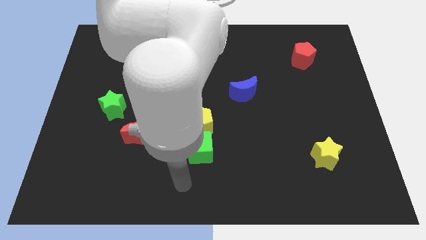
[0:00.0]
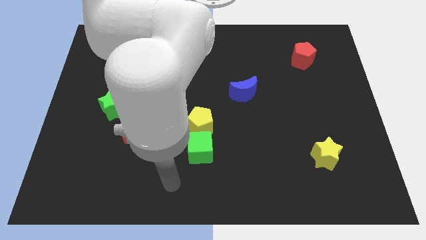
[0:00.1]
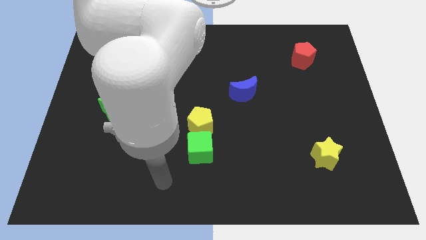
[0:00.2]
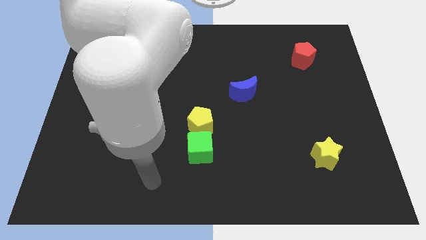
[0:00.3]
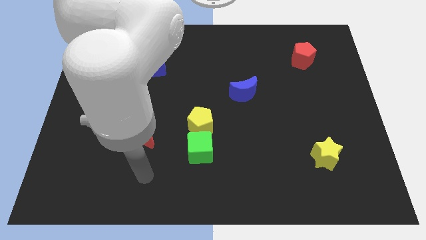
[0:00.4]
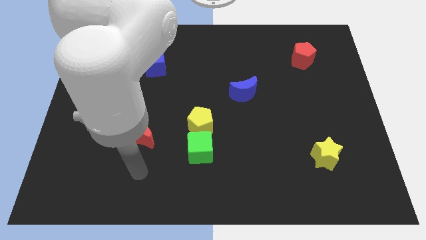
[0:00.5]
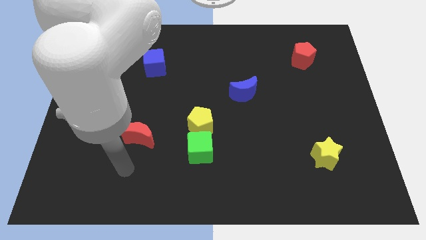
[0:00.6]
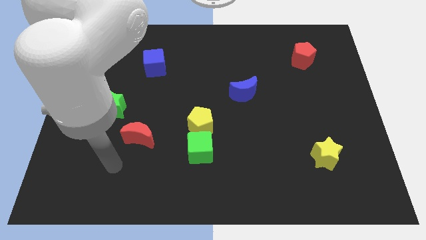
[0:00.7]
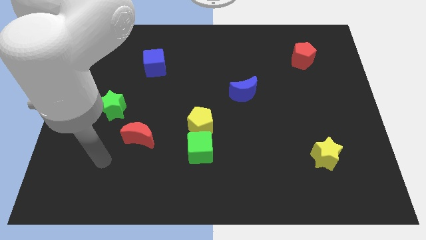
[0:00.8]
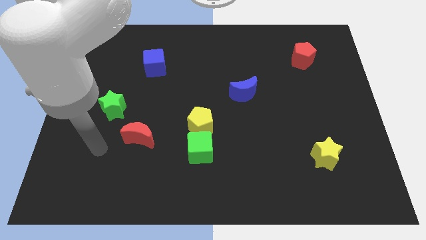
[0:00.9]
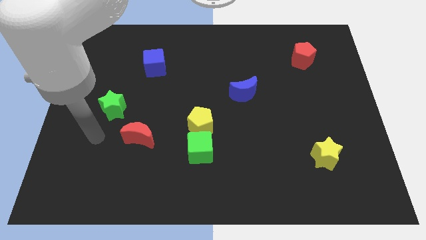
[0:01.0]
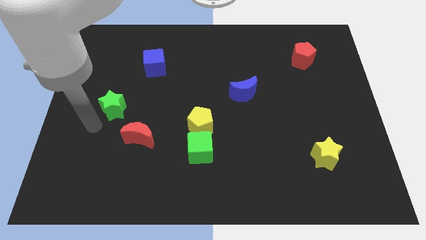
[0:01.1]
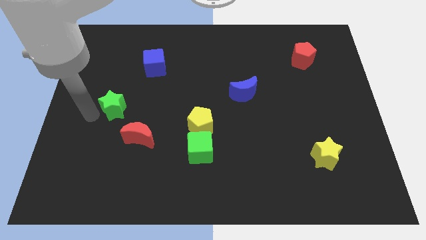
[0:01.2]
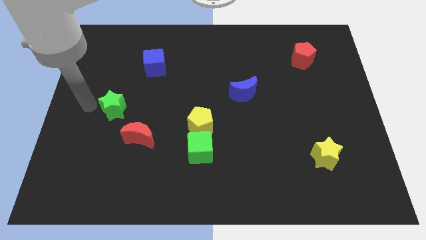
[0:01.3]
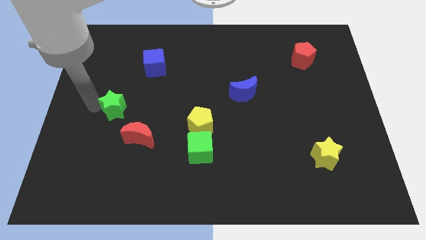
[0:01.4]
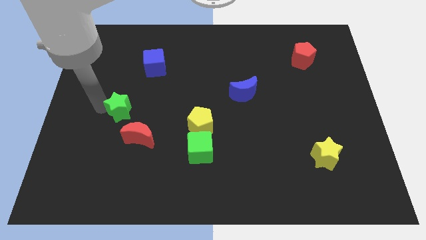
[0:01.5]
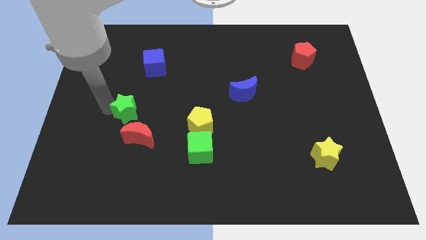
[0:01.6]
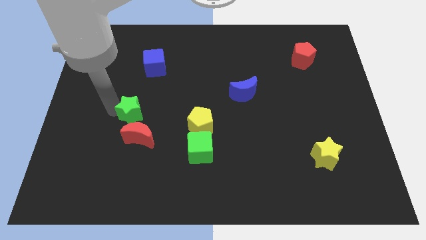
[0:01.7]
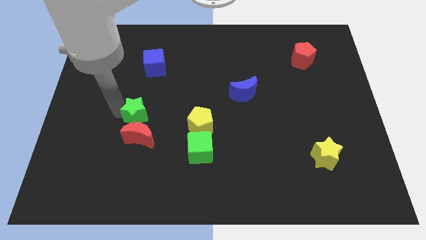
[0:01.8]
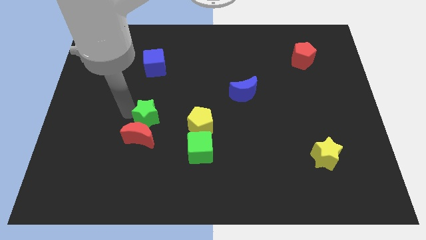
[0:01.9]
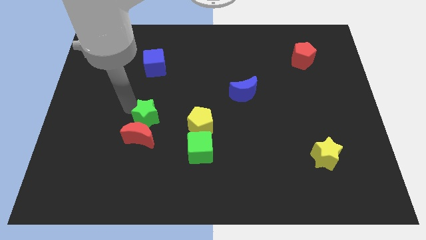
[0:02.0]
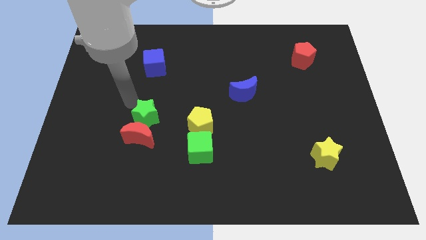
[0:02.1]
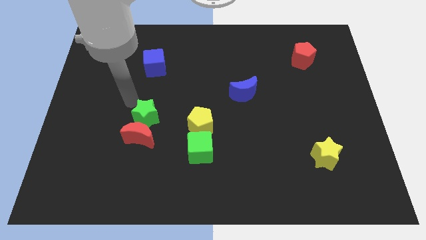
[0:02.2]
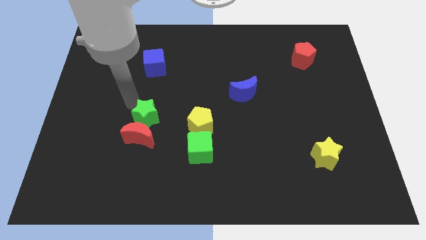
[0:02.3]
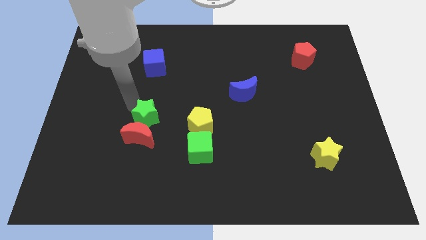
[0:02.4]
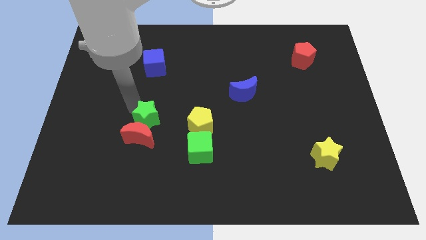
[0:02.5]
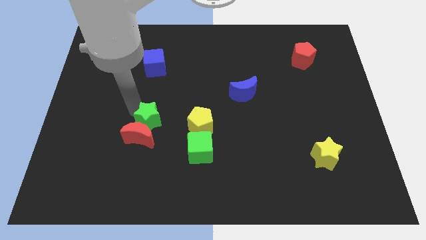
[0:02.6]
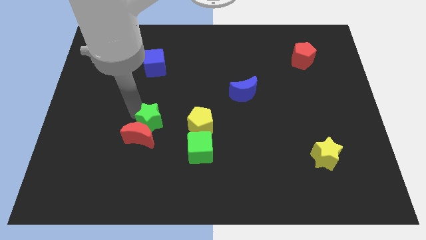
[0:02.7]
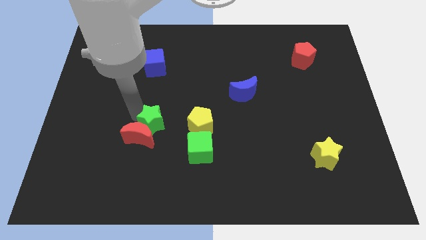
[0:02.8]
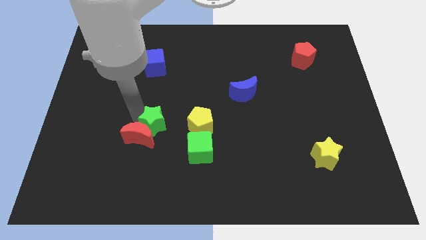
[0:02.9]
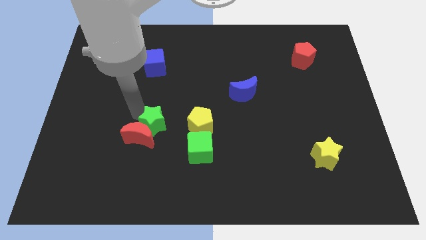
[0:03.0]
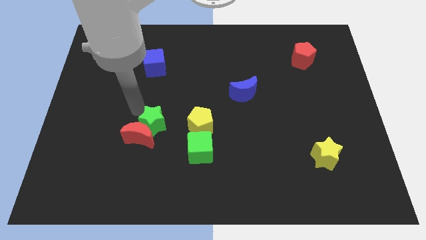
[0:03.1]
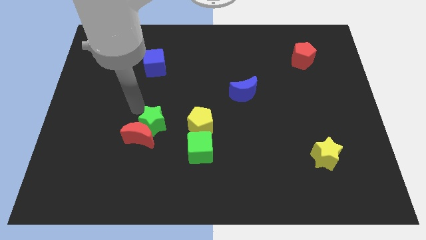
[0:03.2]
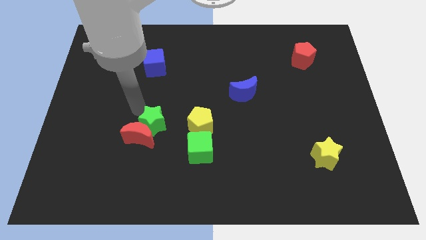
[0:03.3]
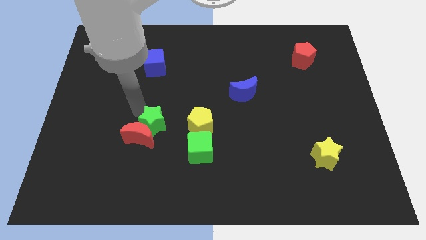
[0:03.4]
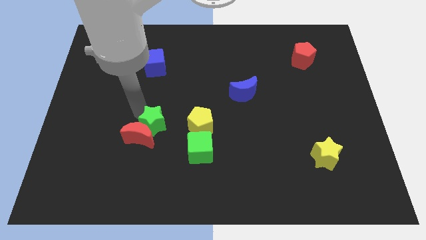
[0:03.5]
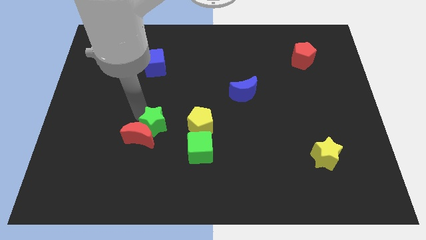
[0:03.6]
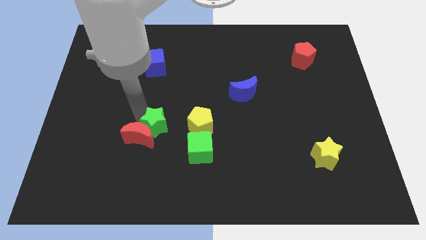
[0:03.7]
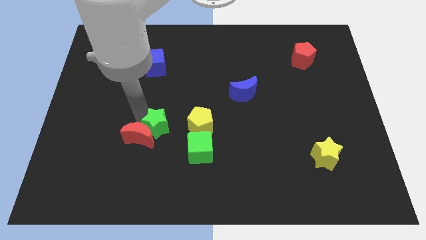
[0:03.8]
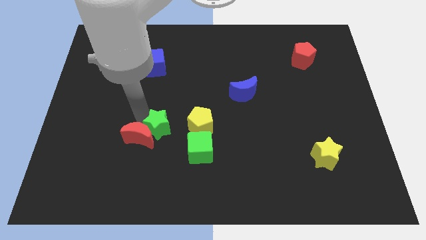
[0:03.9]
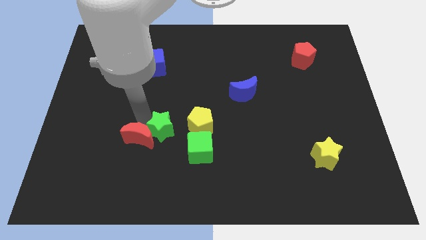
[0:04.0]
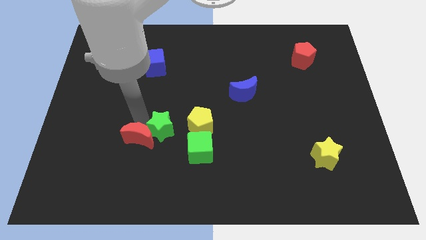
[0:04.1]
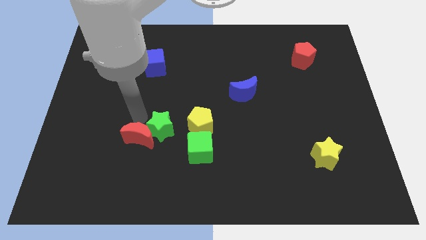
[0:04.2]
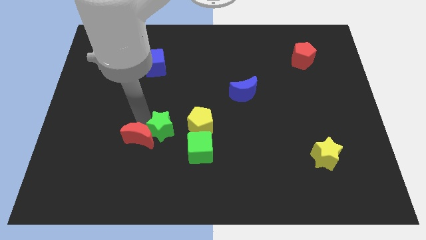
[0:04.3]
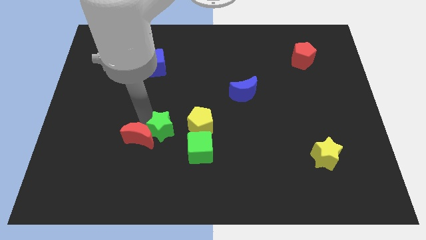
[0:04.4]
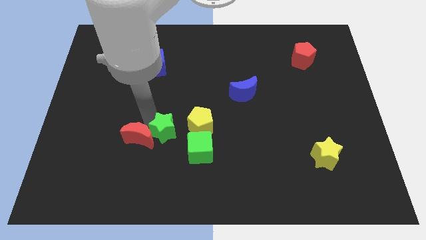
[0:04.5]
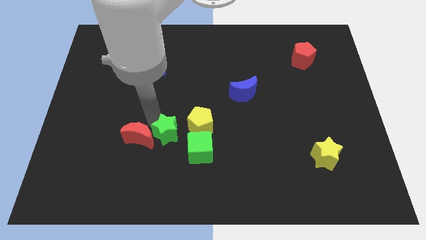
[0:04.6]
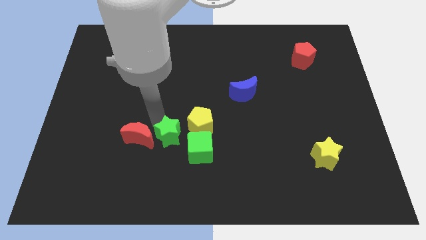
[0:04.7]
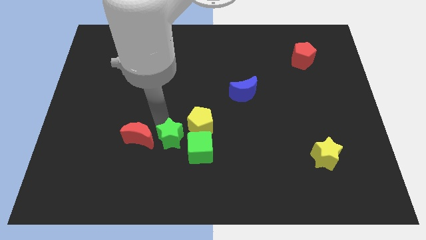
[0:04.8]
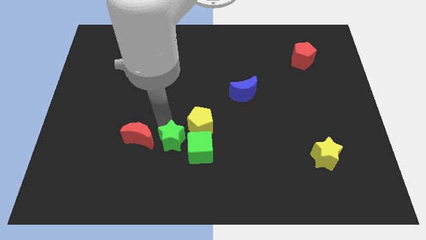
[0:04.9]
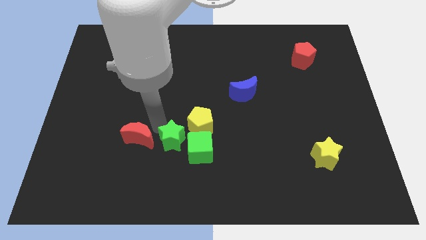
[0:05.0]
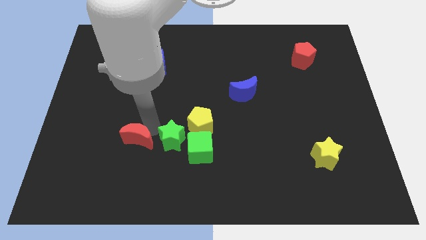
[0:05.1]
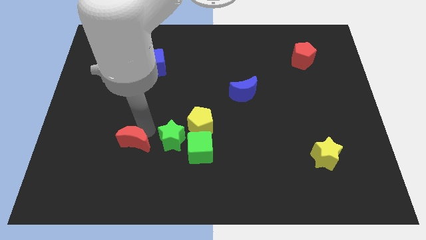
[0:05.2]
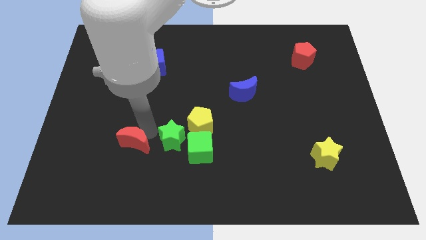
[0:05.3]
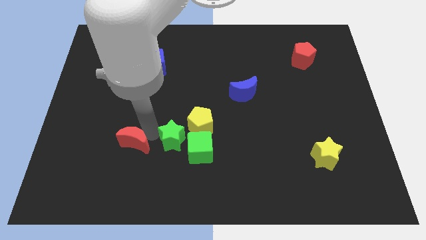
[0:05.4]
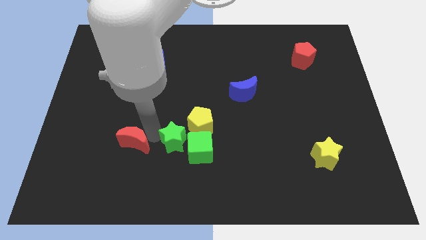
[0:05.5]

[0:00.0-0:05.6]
slide the green star to the green cube
